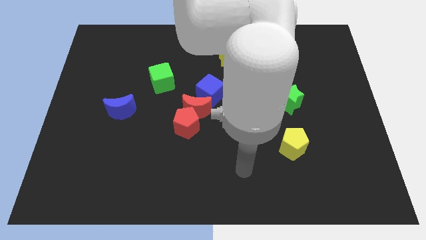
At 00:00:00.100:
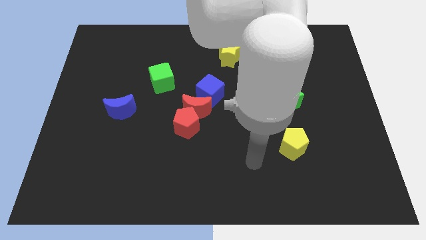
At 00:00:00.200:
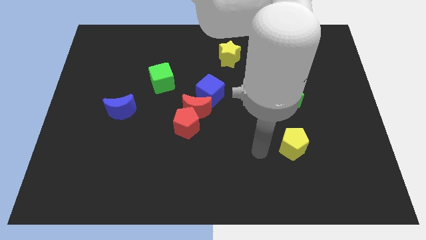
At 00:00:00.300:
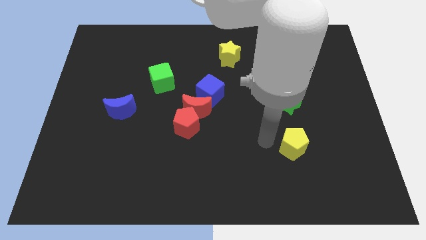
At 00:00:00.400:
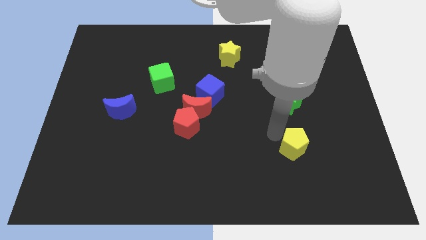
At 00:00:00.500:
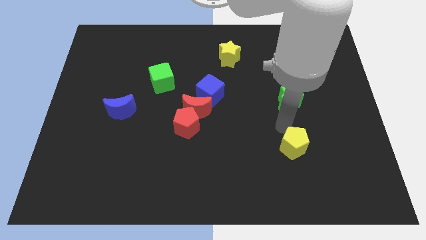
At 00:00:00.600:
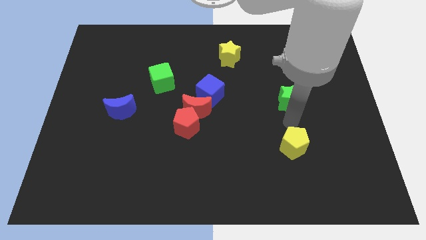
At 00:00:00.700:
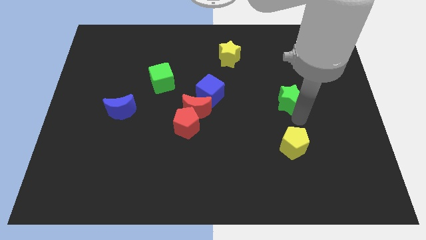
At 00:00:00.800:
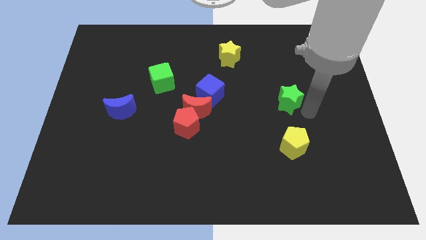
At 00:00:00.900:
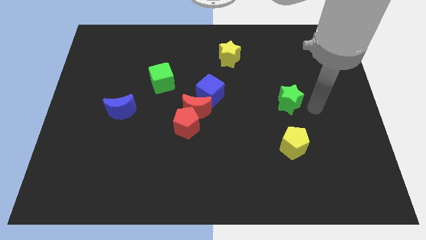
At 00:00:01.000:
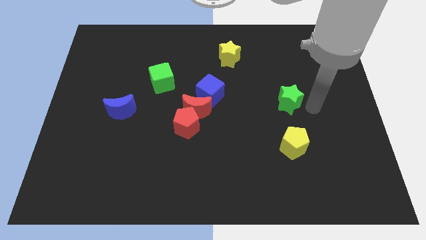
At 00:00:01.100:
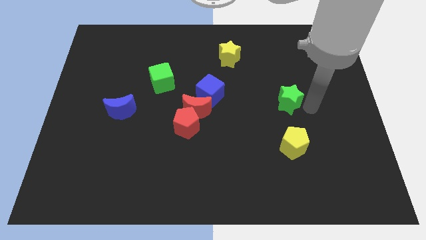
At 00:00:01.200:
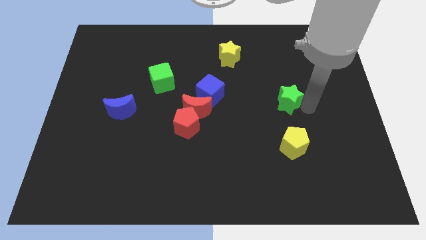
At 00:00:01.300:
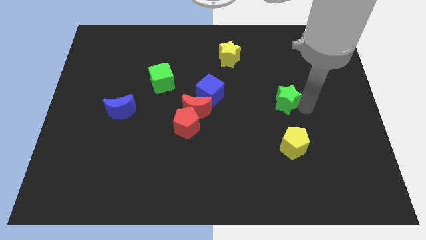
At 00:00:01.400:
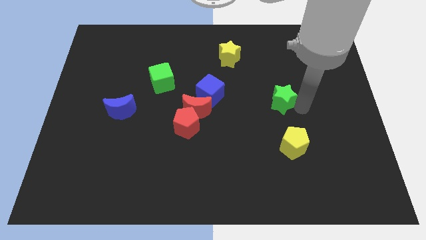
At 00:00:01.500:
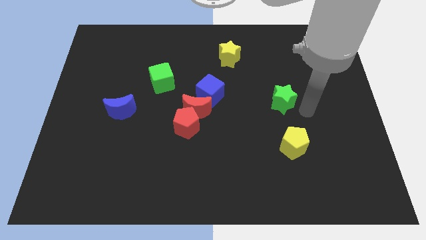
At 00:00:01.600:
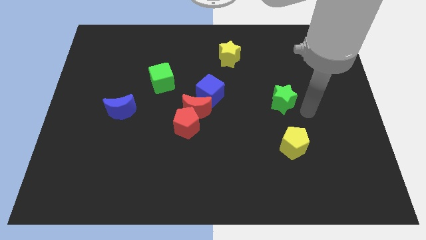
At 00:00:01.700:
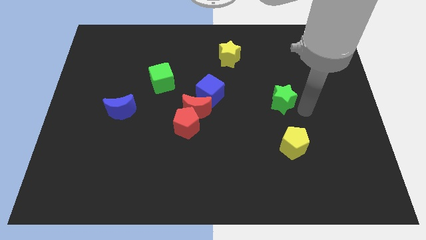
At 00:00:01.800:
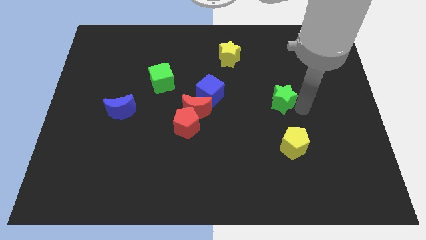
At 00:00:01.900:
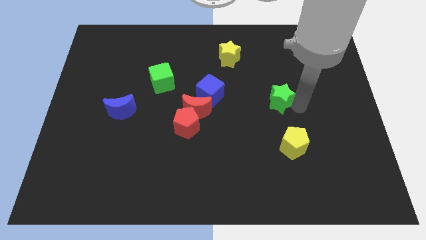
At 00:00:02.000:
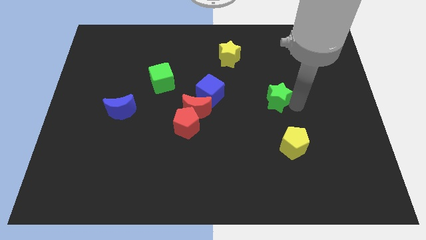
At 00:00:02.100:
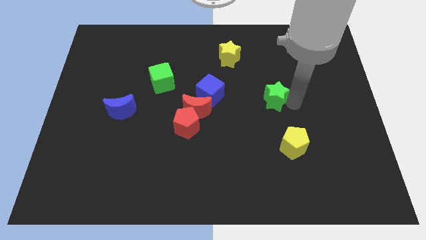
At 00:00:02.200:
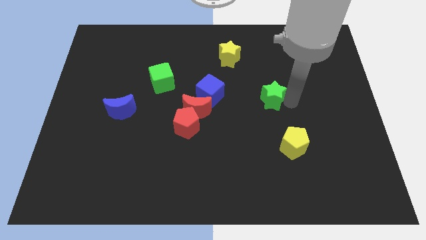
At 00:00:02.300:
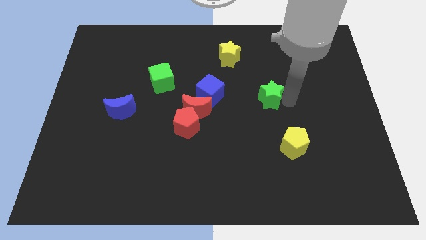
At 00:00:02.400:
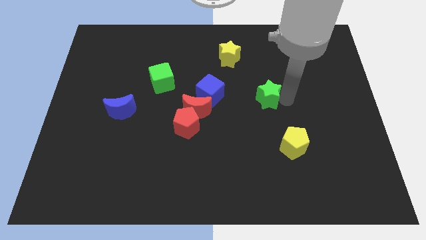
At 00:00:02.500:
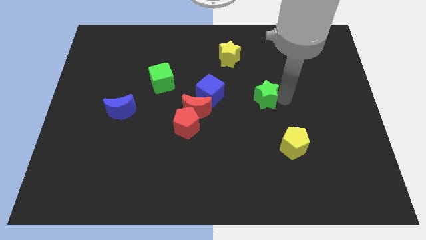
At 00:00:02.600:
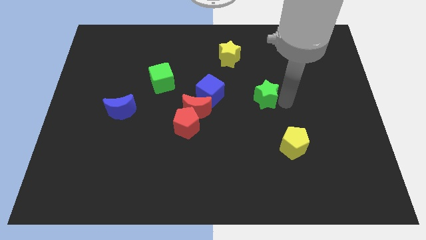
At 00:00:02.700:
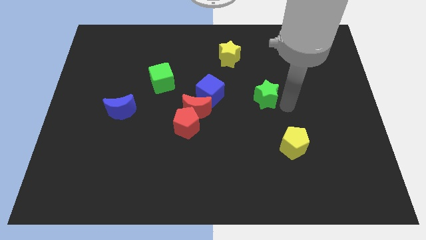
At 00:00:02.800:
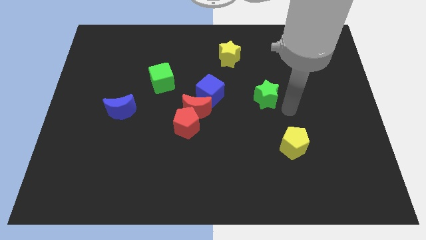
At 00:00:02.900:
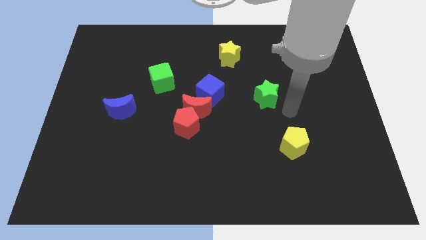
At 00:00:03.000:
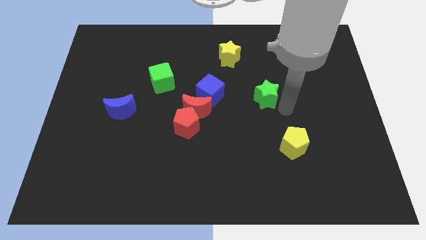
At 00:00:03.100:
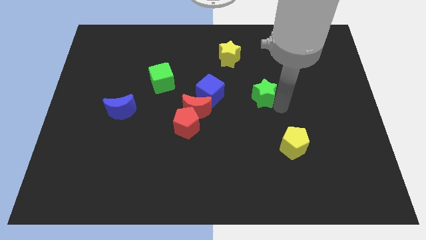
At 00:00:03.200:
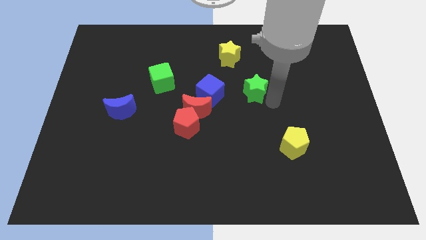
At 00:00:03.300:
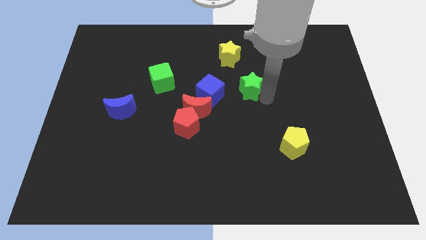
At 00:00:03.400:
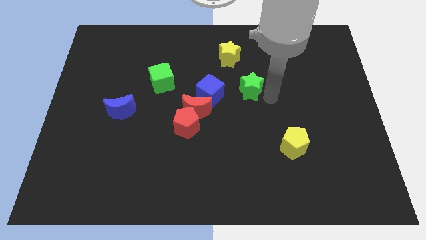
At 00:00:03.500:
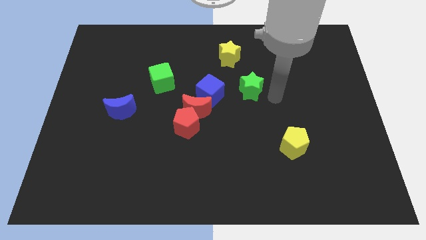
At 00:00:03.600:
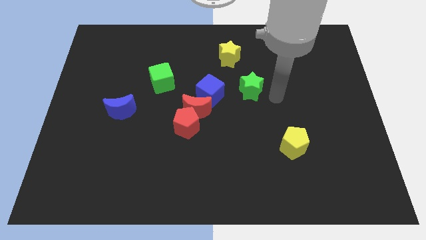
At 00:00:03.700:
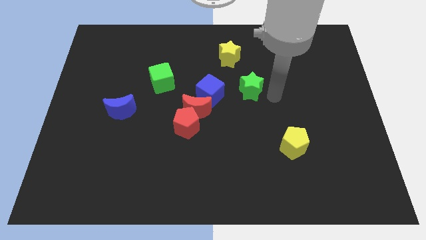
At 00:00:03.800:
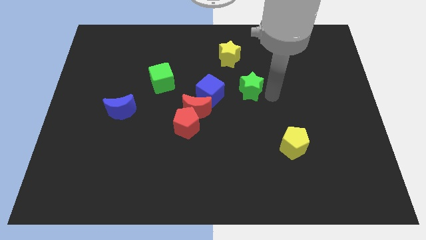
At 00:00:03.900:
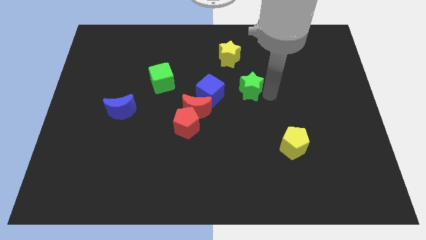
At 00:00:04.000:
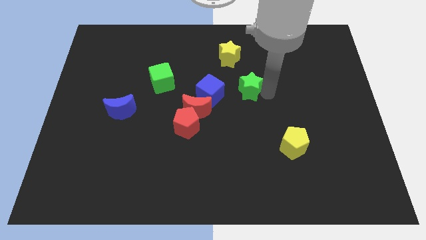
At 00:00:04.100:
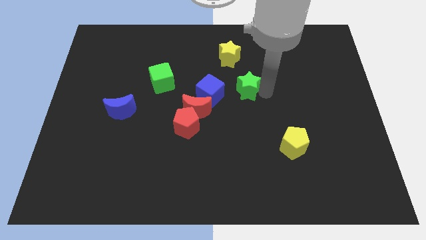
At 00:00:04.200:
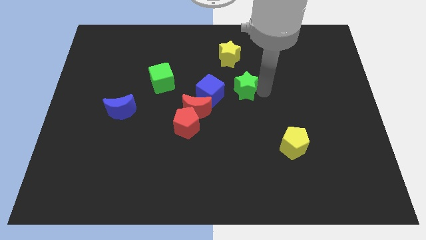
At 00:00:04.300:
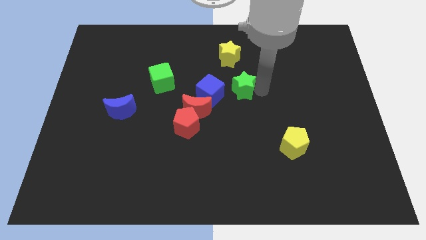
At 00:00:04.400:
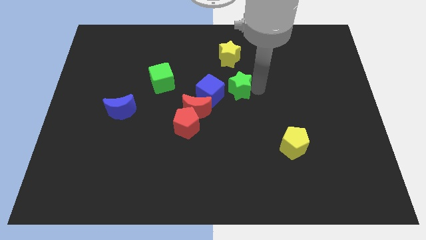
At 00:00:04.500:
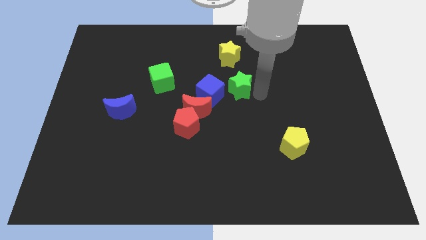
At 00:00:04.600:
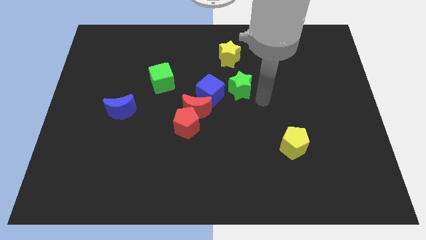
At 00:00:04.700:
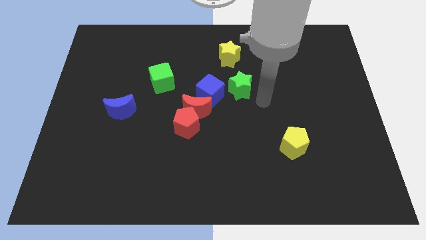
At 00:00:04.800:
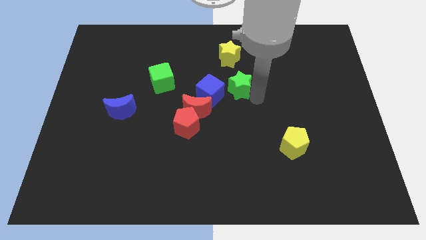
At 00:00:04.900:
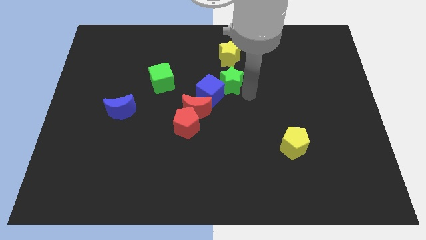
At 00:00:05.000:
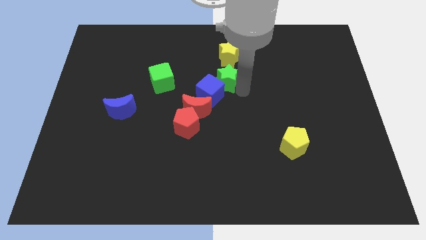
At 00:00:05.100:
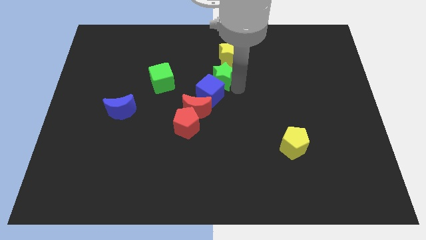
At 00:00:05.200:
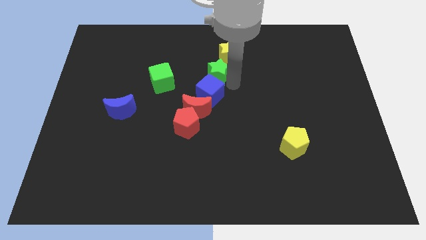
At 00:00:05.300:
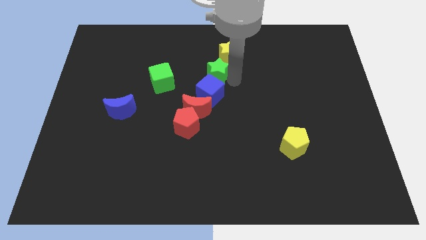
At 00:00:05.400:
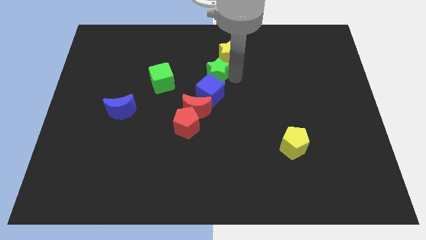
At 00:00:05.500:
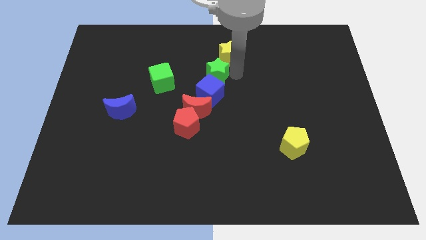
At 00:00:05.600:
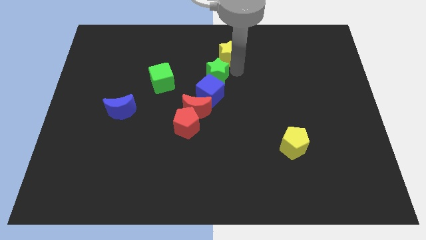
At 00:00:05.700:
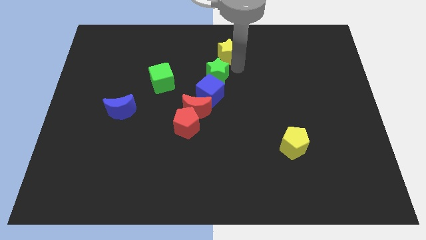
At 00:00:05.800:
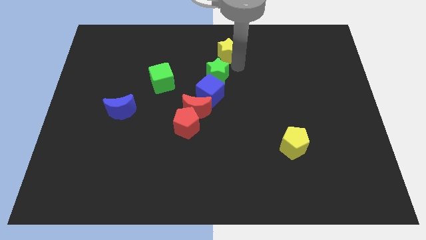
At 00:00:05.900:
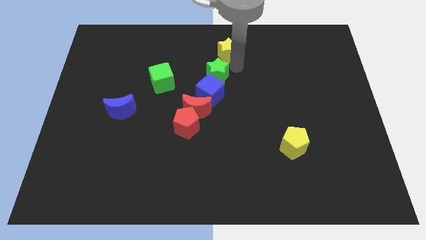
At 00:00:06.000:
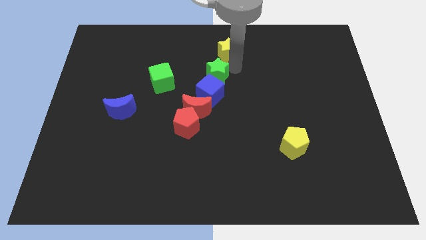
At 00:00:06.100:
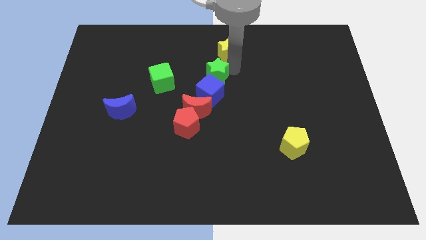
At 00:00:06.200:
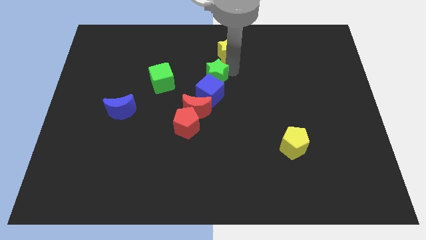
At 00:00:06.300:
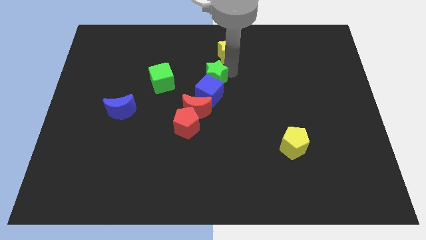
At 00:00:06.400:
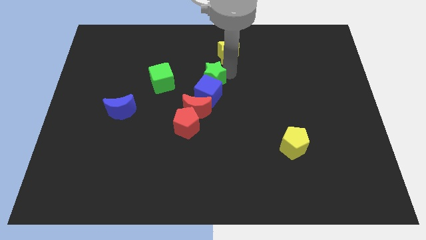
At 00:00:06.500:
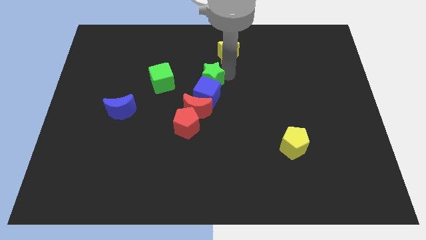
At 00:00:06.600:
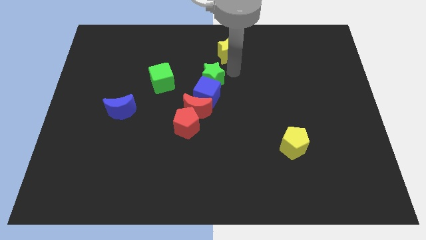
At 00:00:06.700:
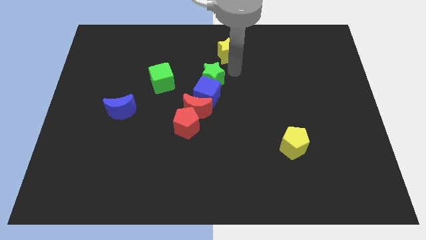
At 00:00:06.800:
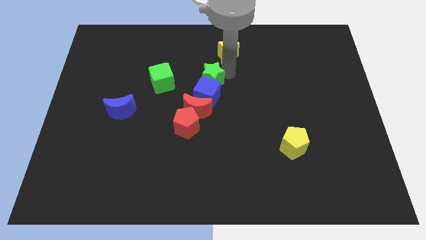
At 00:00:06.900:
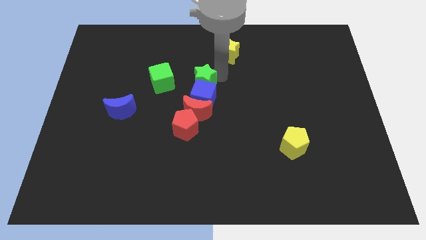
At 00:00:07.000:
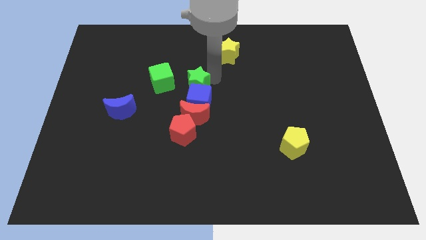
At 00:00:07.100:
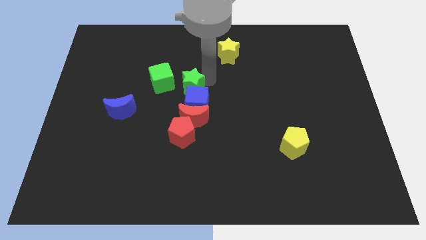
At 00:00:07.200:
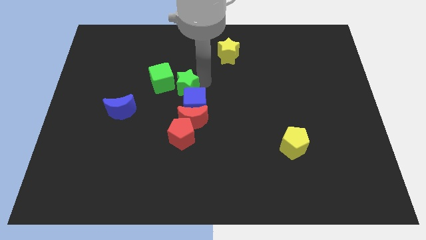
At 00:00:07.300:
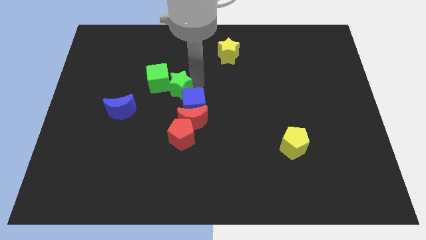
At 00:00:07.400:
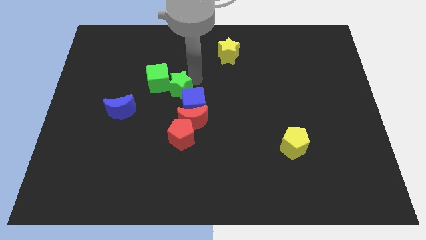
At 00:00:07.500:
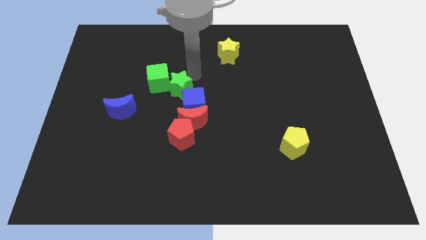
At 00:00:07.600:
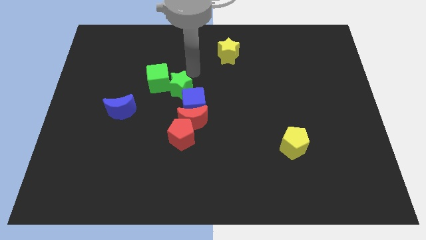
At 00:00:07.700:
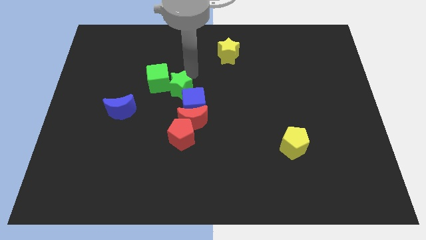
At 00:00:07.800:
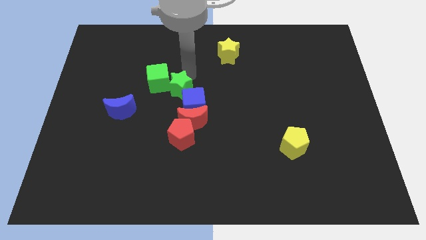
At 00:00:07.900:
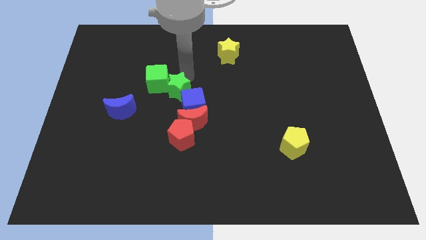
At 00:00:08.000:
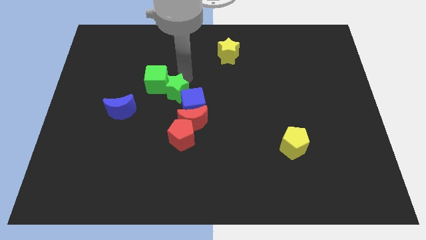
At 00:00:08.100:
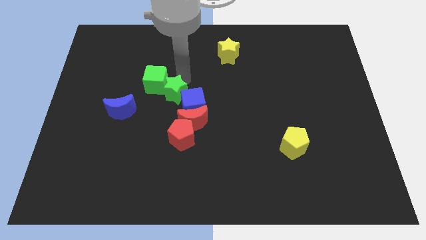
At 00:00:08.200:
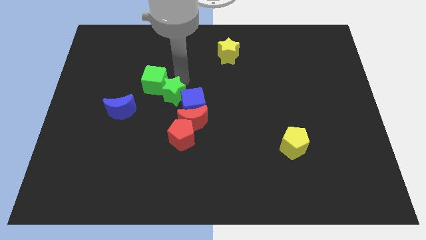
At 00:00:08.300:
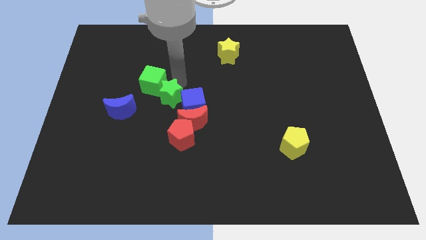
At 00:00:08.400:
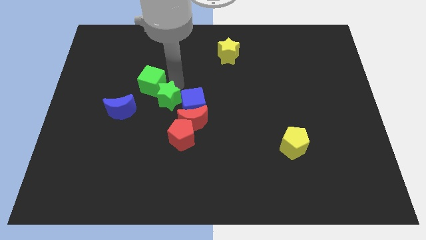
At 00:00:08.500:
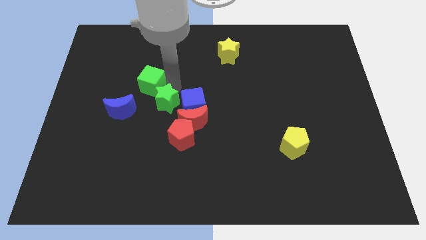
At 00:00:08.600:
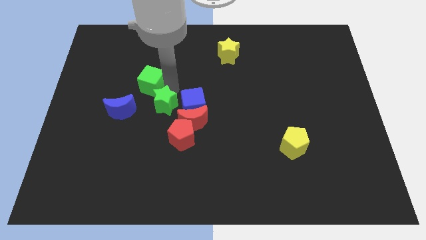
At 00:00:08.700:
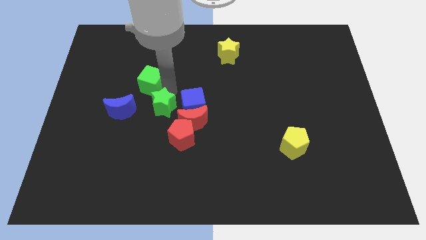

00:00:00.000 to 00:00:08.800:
put the green star just left of the red moon
